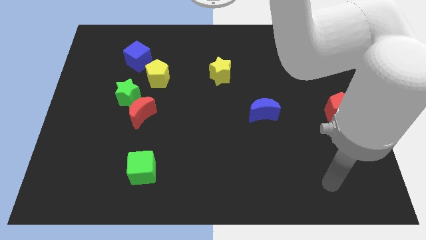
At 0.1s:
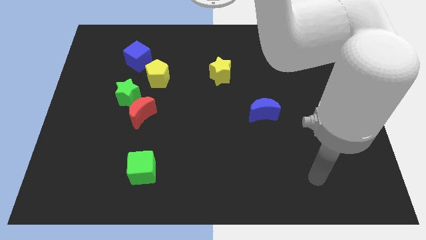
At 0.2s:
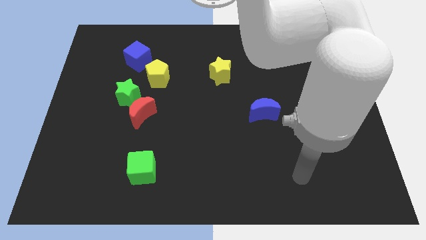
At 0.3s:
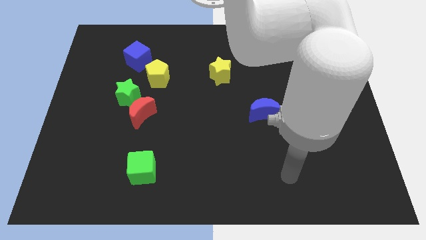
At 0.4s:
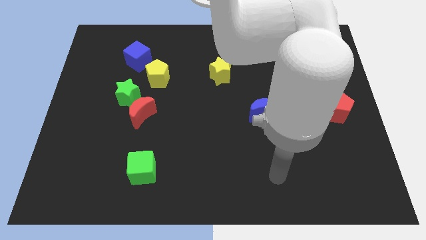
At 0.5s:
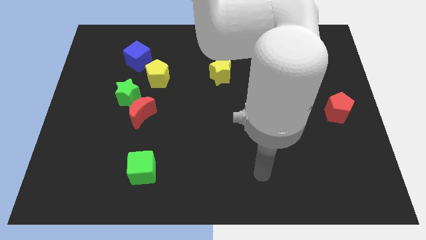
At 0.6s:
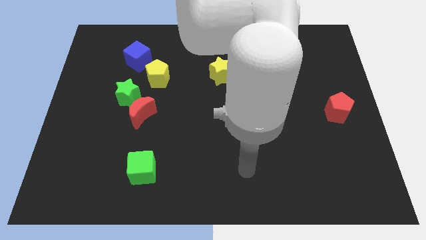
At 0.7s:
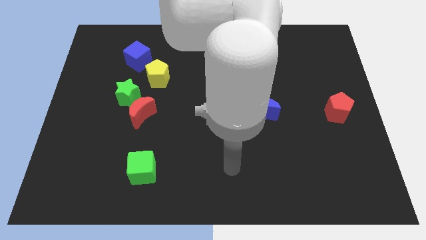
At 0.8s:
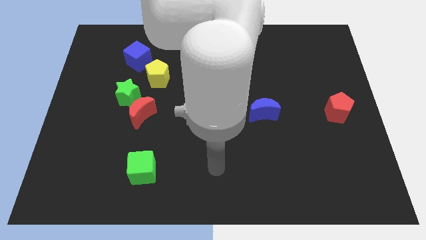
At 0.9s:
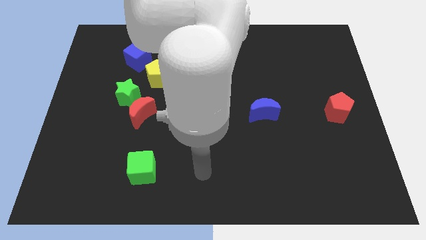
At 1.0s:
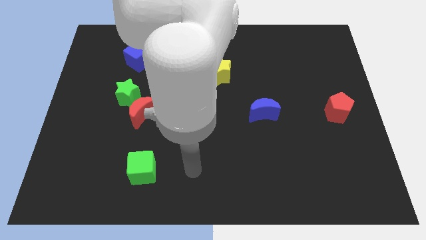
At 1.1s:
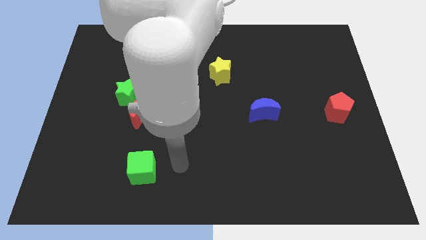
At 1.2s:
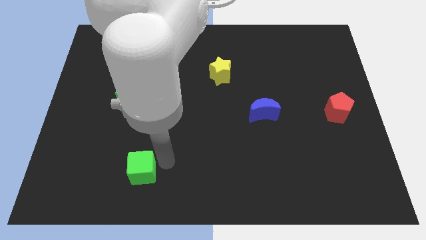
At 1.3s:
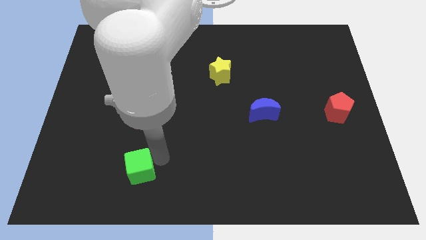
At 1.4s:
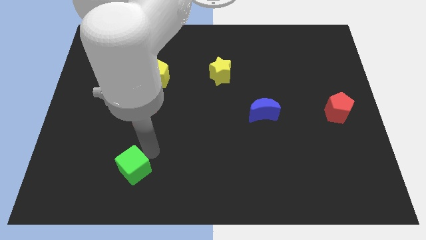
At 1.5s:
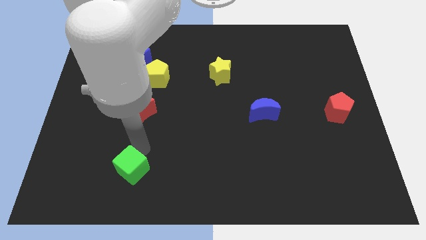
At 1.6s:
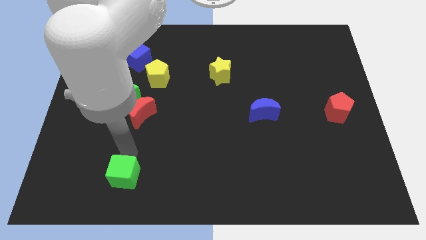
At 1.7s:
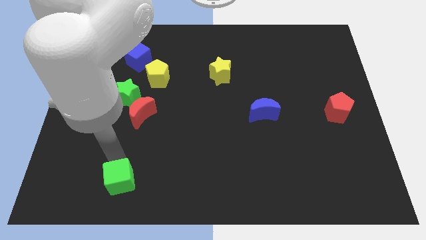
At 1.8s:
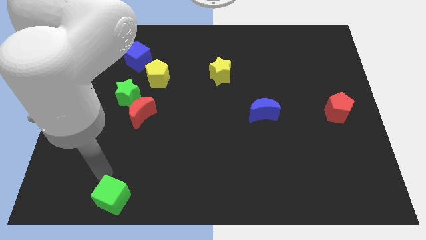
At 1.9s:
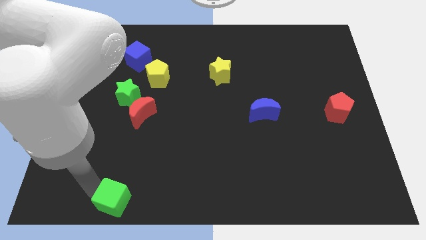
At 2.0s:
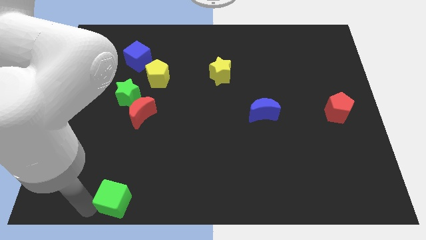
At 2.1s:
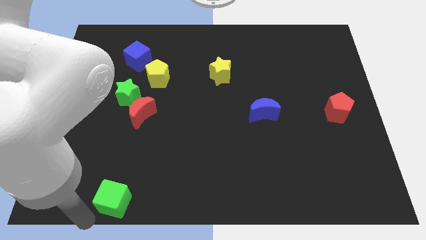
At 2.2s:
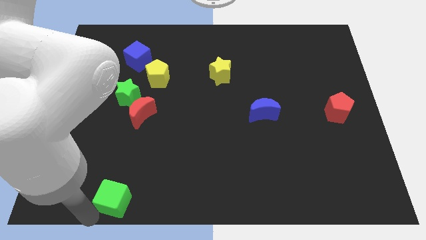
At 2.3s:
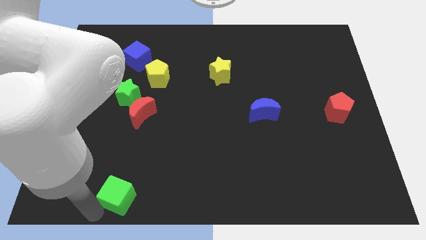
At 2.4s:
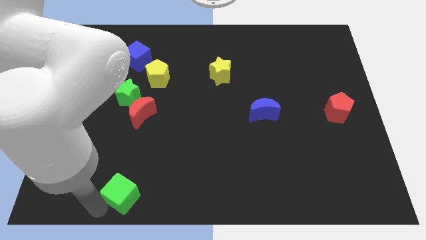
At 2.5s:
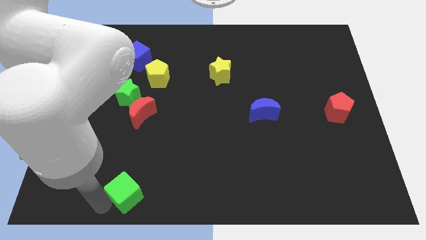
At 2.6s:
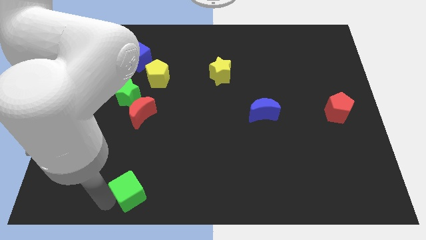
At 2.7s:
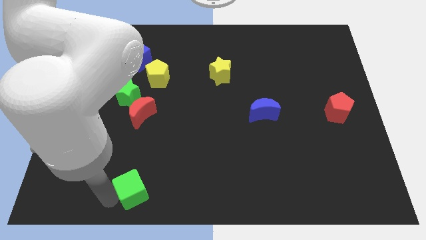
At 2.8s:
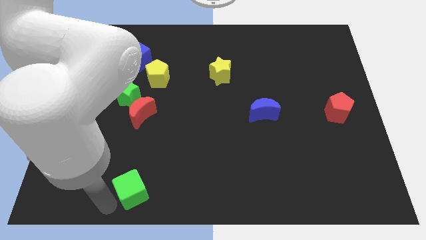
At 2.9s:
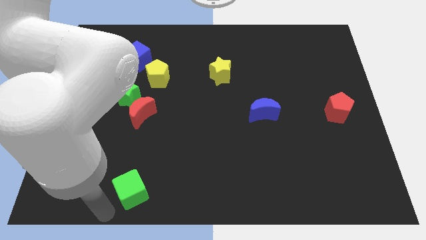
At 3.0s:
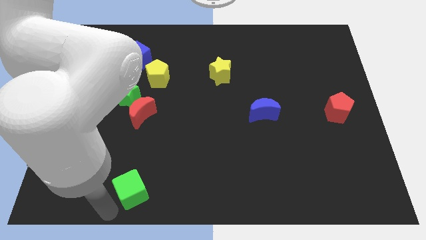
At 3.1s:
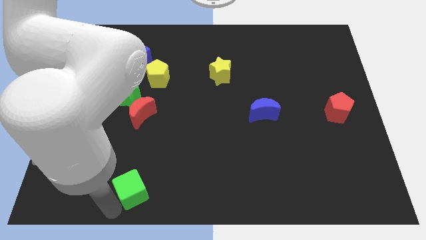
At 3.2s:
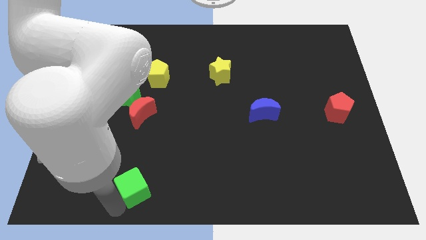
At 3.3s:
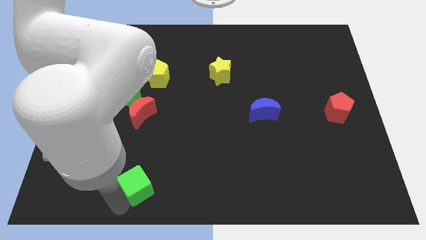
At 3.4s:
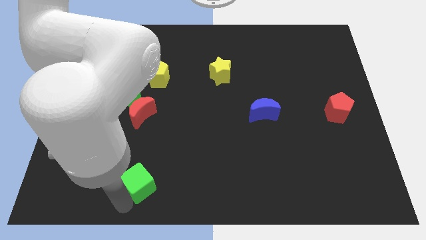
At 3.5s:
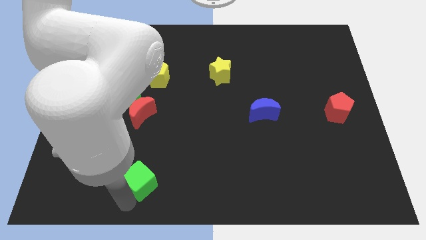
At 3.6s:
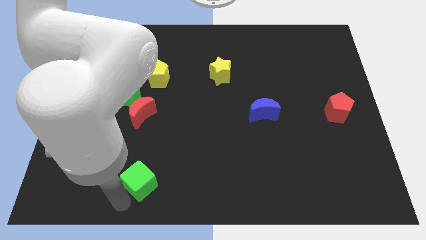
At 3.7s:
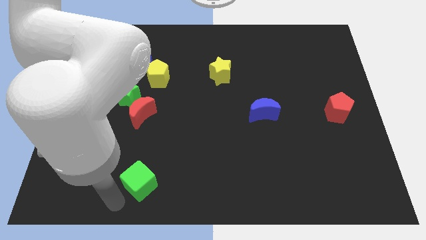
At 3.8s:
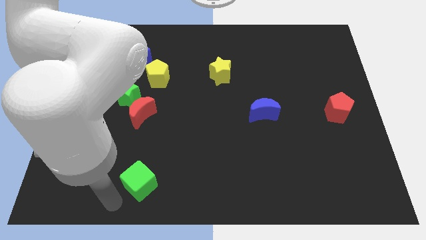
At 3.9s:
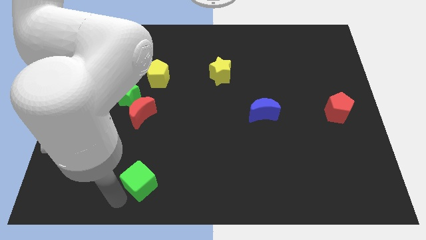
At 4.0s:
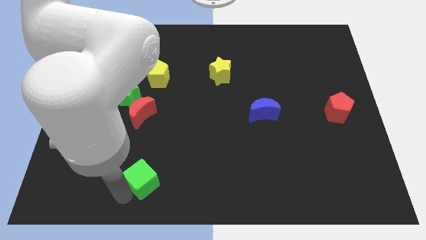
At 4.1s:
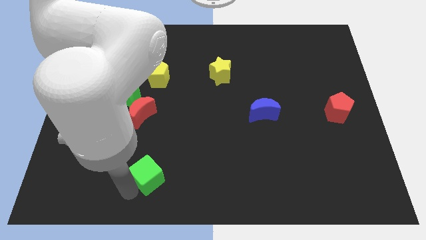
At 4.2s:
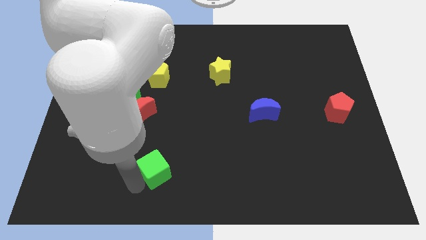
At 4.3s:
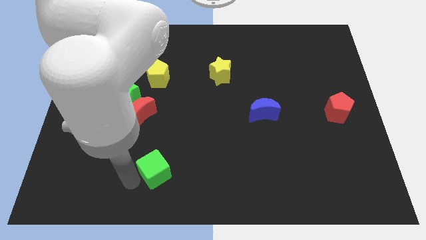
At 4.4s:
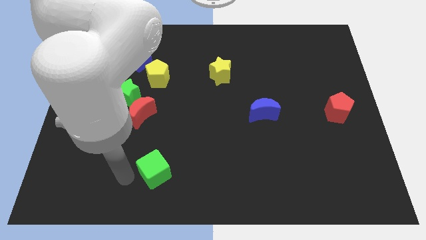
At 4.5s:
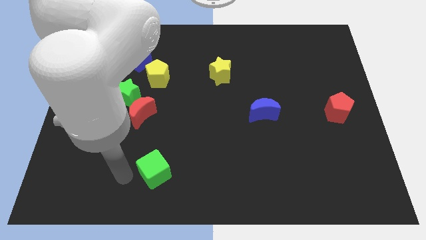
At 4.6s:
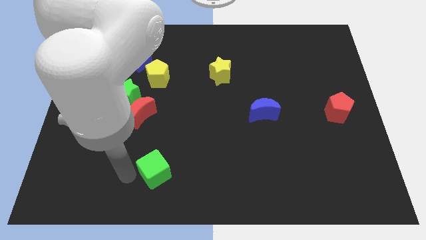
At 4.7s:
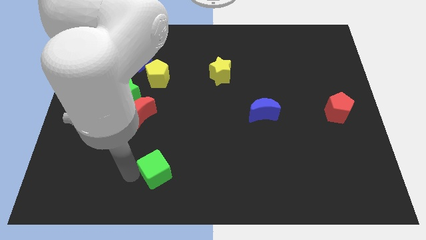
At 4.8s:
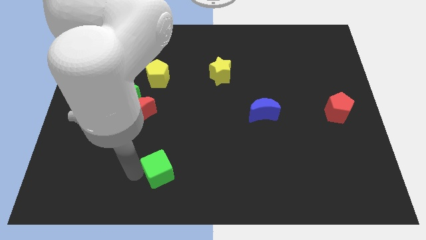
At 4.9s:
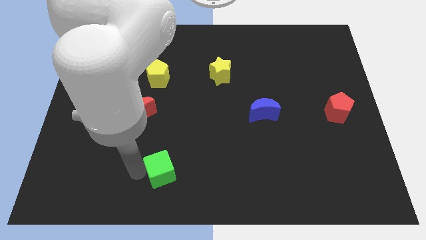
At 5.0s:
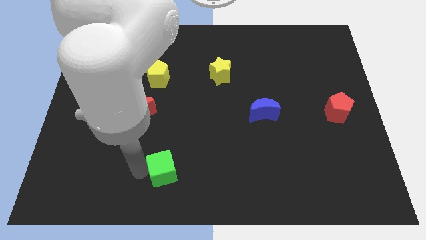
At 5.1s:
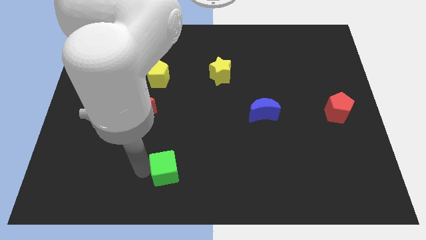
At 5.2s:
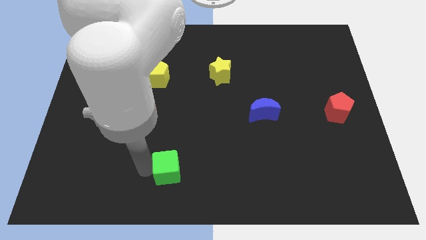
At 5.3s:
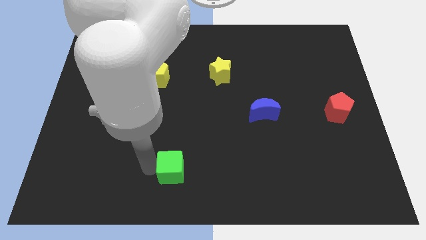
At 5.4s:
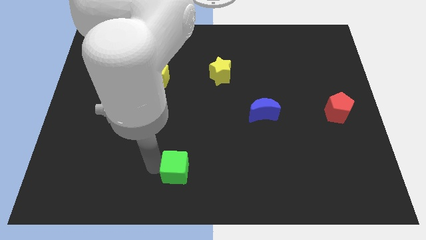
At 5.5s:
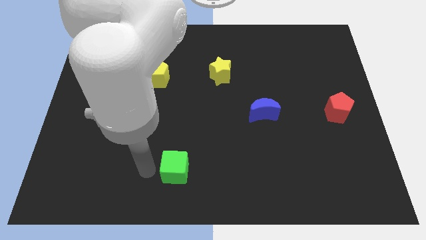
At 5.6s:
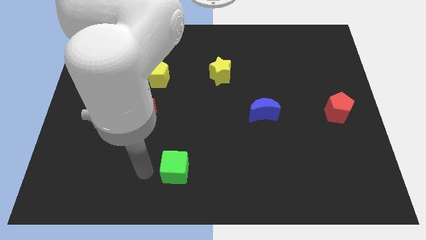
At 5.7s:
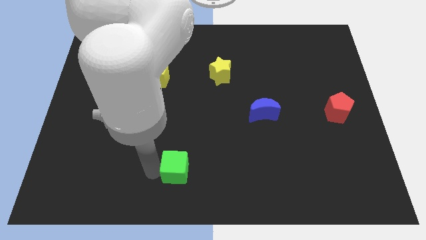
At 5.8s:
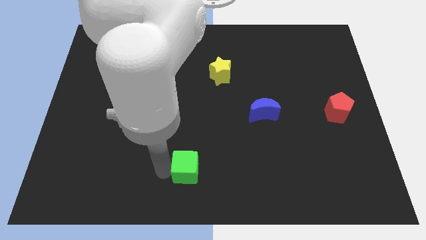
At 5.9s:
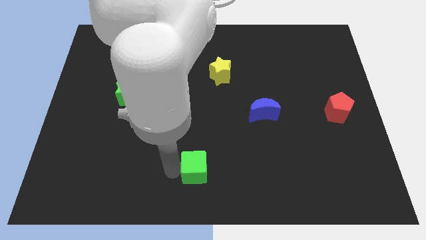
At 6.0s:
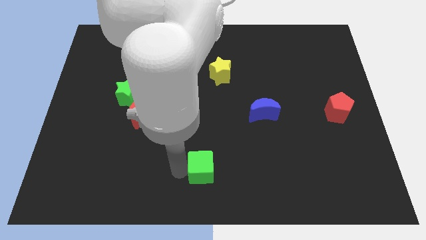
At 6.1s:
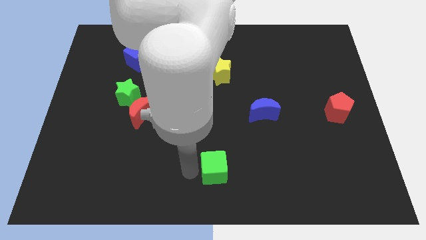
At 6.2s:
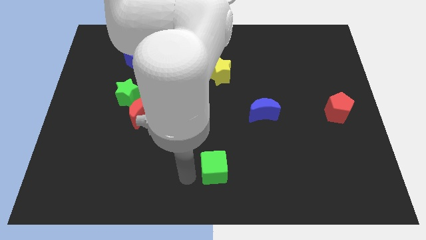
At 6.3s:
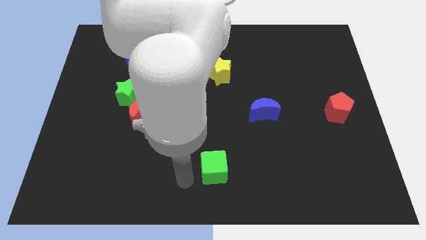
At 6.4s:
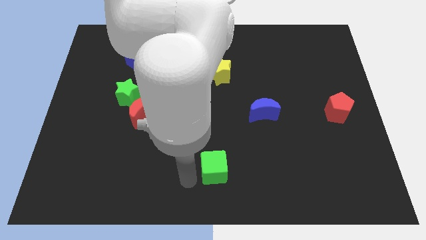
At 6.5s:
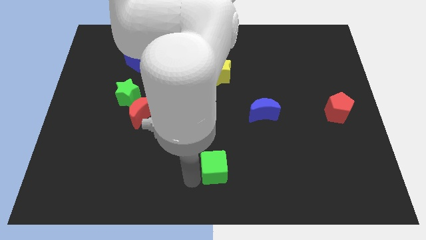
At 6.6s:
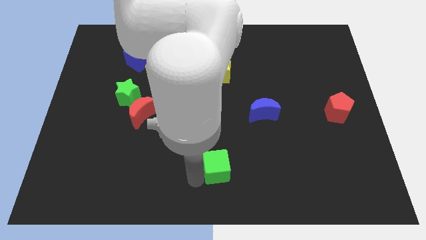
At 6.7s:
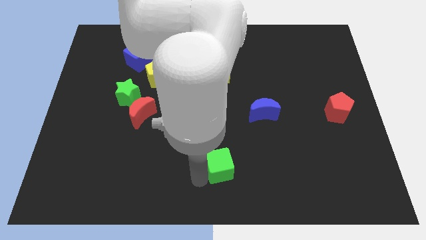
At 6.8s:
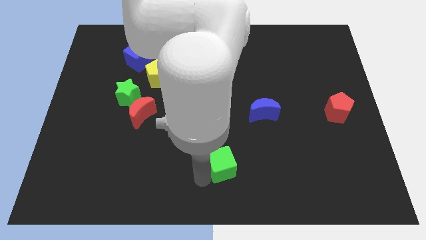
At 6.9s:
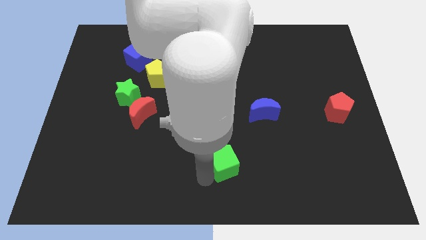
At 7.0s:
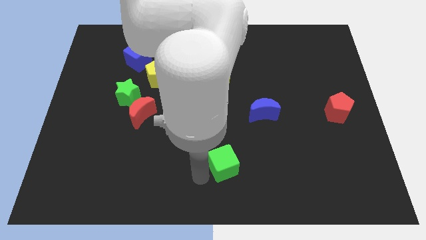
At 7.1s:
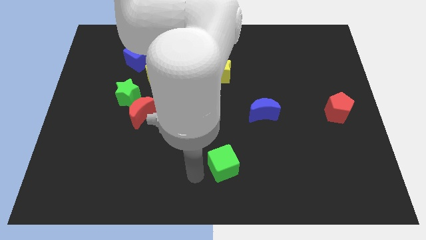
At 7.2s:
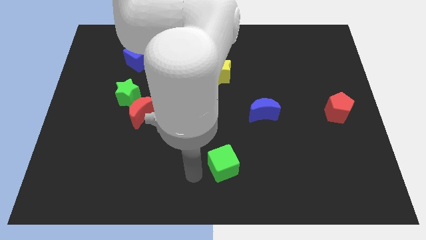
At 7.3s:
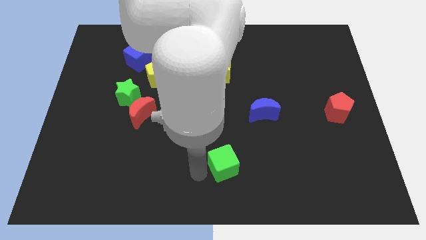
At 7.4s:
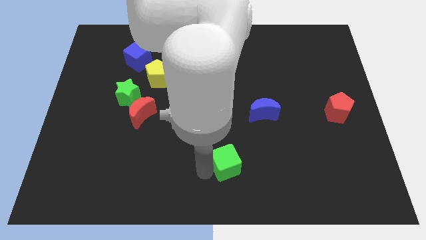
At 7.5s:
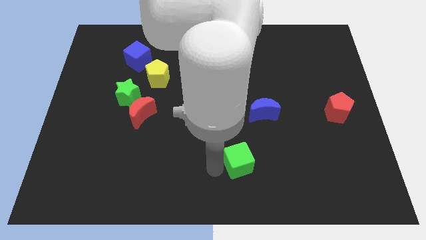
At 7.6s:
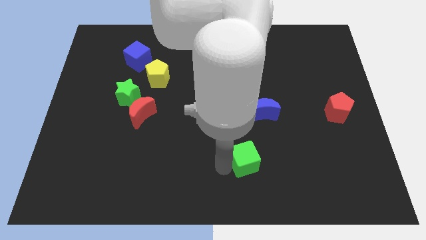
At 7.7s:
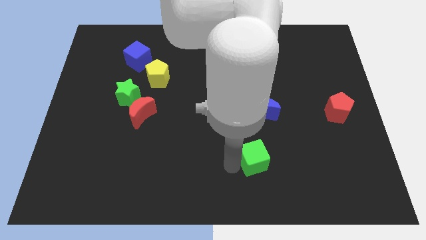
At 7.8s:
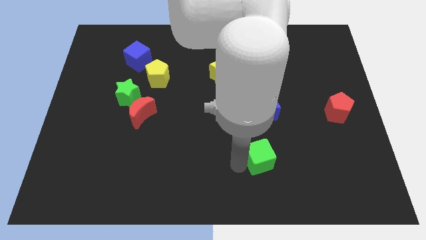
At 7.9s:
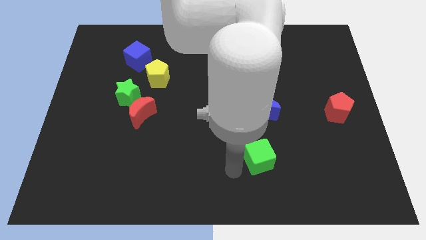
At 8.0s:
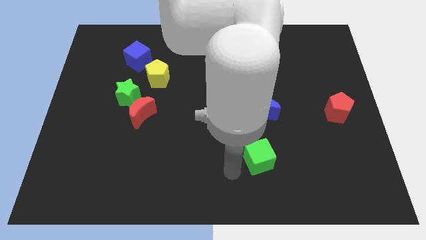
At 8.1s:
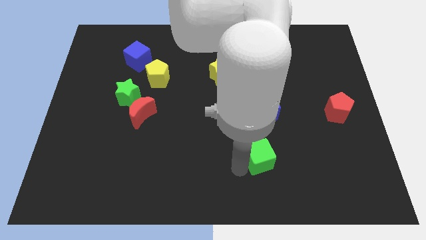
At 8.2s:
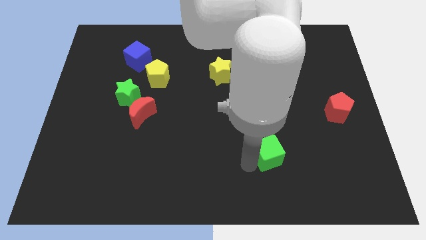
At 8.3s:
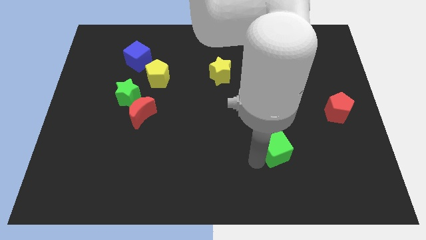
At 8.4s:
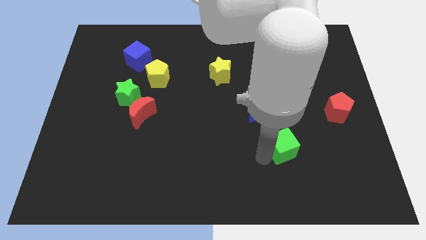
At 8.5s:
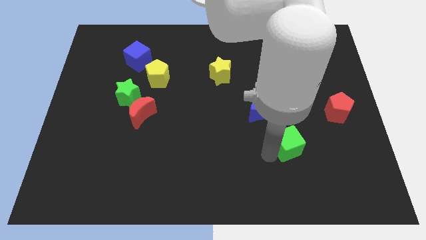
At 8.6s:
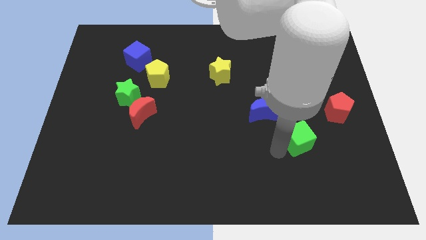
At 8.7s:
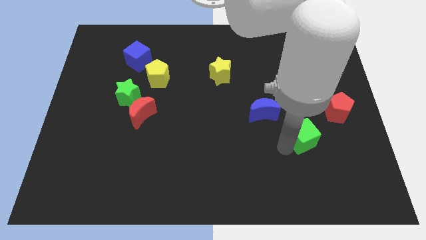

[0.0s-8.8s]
put the green cube to the bottom left of the red pentagon
